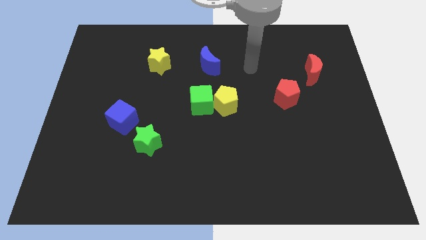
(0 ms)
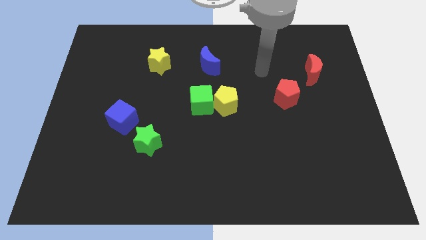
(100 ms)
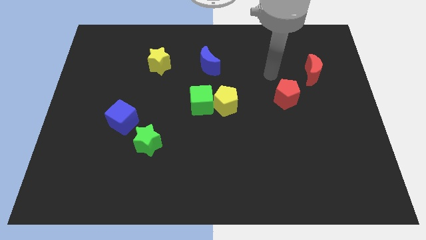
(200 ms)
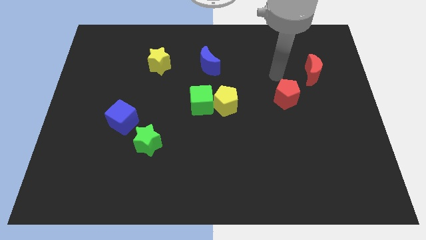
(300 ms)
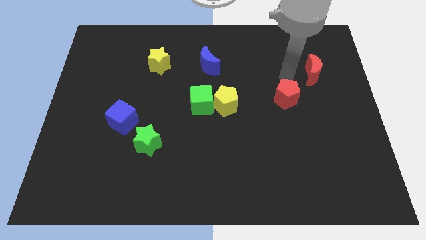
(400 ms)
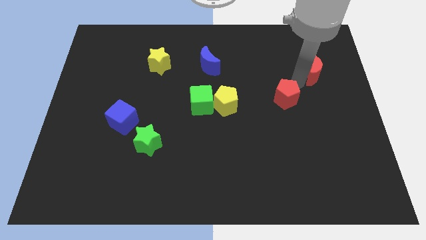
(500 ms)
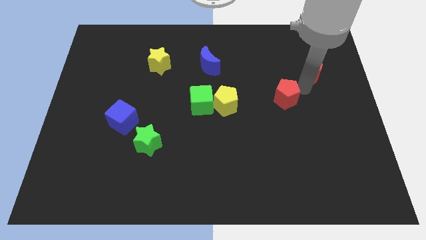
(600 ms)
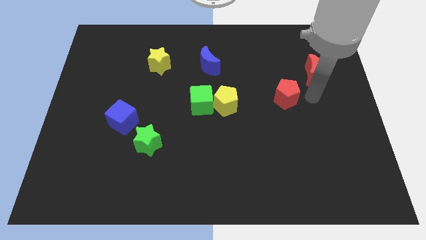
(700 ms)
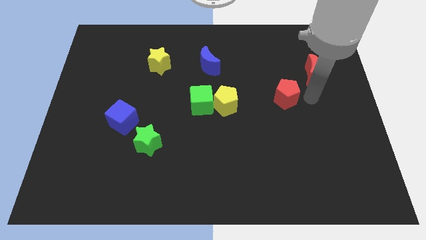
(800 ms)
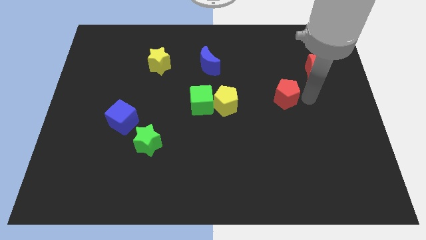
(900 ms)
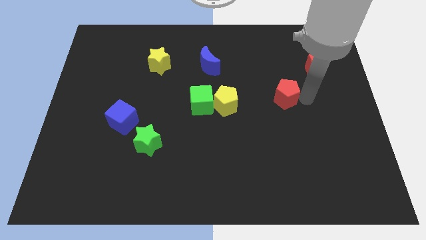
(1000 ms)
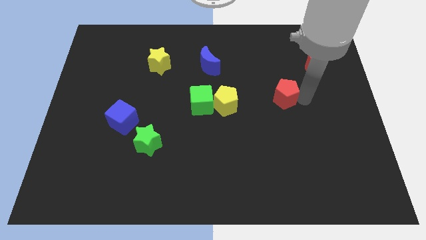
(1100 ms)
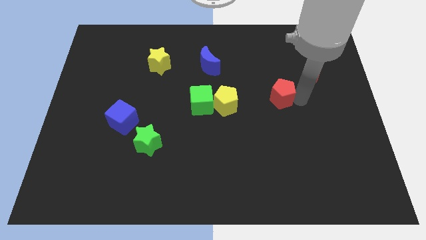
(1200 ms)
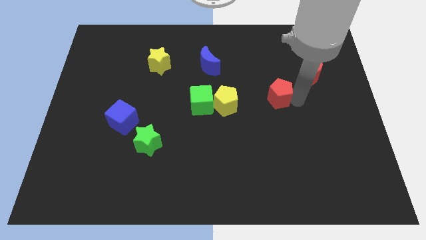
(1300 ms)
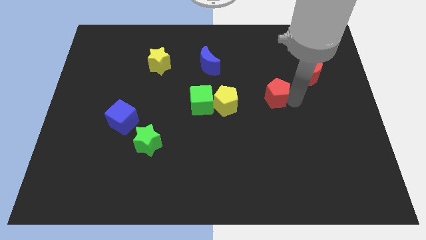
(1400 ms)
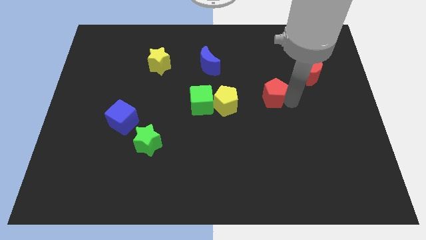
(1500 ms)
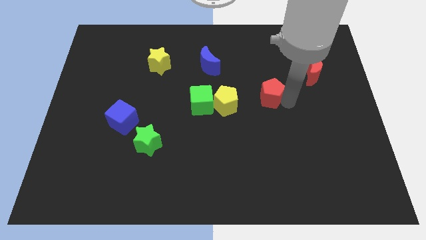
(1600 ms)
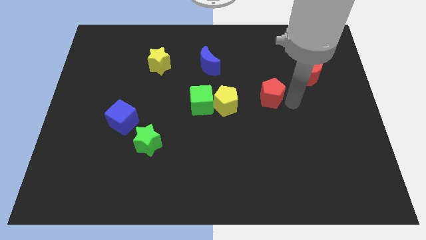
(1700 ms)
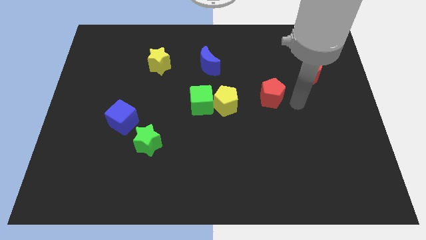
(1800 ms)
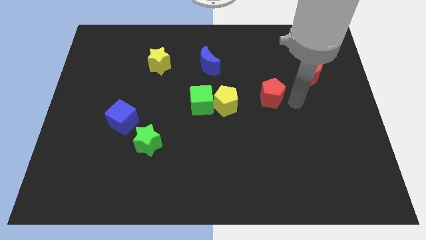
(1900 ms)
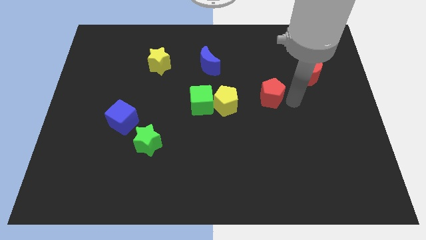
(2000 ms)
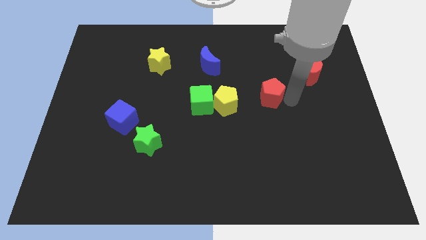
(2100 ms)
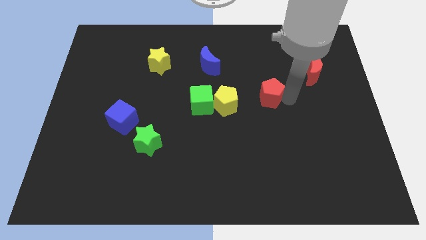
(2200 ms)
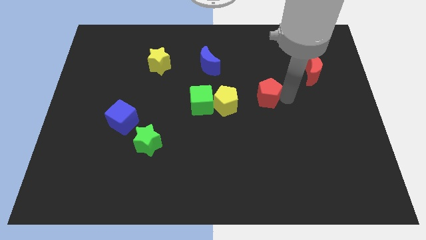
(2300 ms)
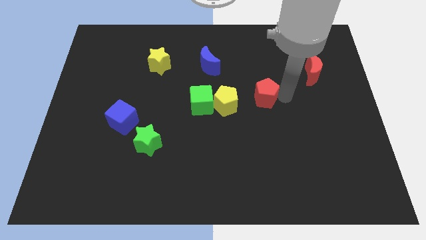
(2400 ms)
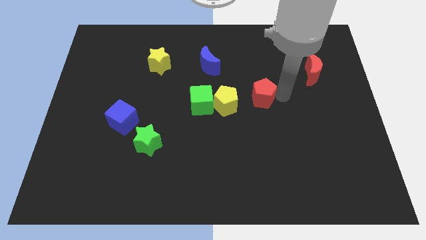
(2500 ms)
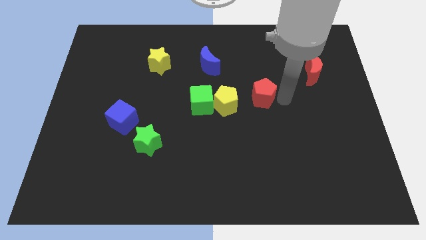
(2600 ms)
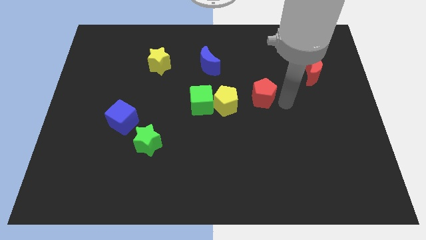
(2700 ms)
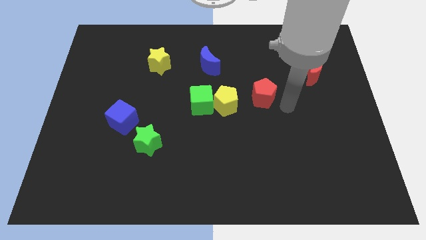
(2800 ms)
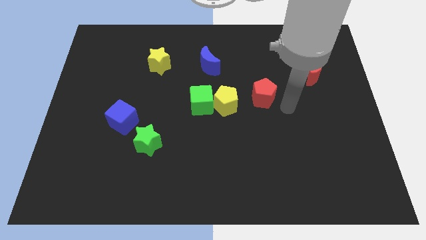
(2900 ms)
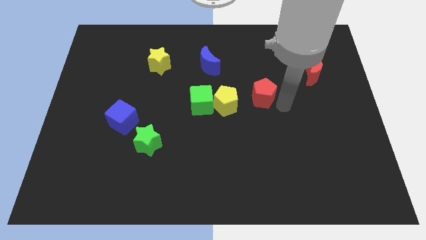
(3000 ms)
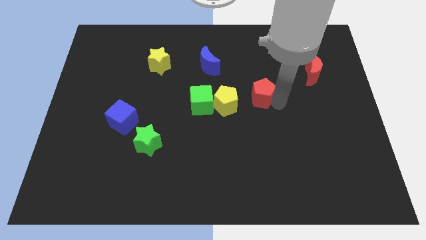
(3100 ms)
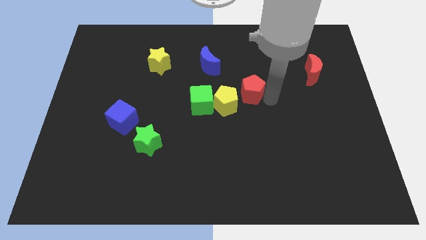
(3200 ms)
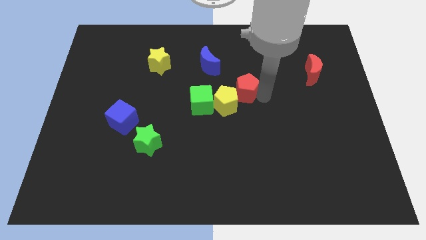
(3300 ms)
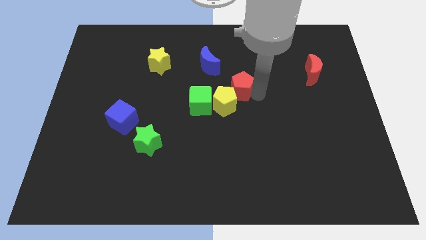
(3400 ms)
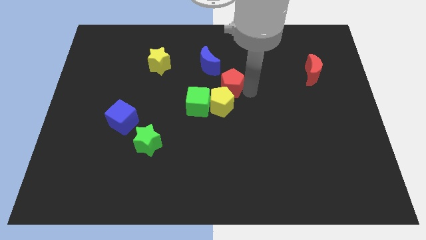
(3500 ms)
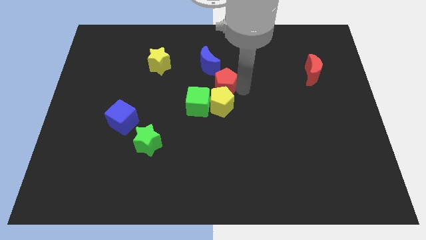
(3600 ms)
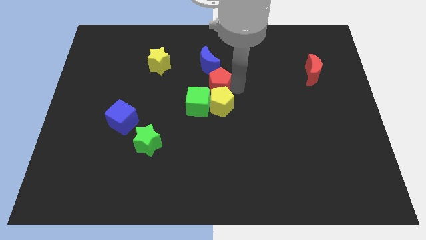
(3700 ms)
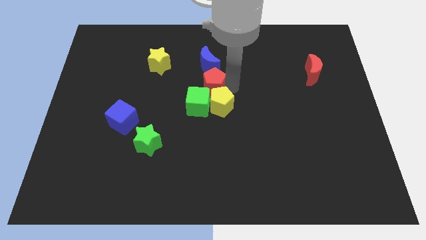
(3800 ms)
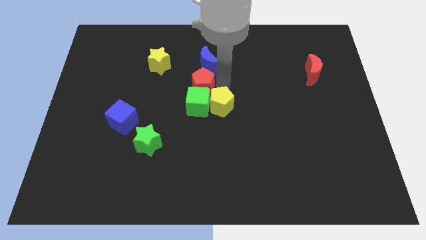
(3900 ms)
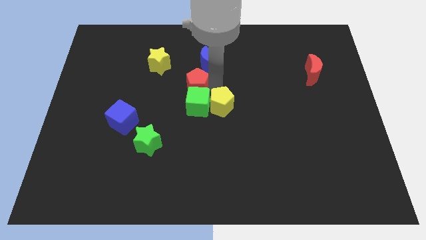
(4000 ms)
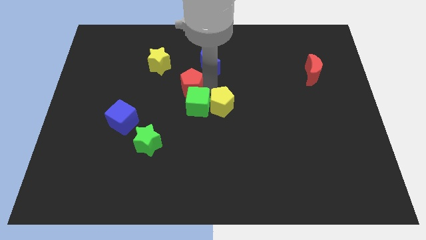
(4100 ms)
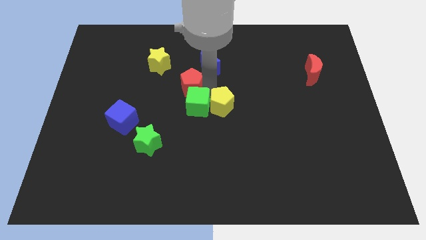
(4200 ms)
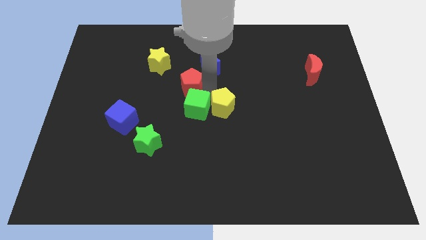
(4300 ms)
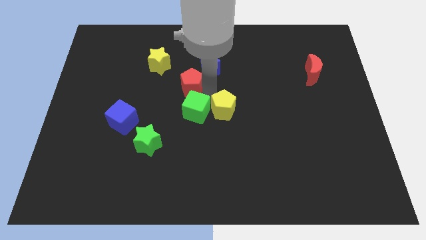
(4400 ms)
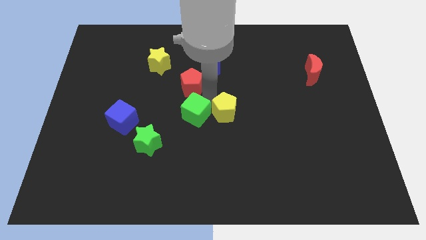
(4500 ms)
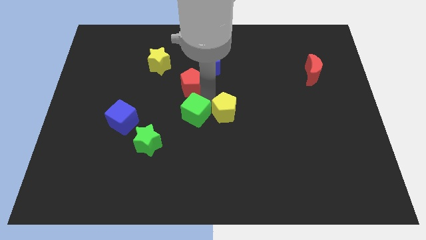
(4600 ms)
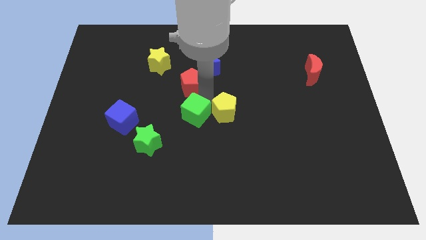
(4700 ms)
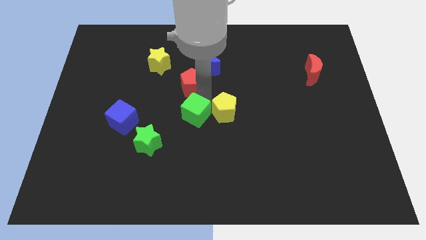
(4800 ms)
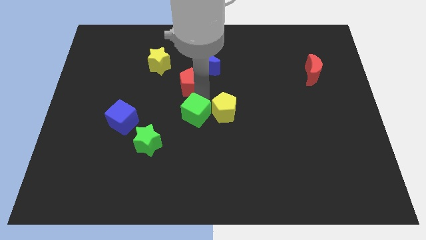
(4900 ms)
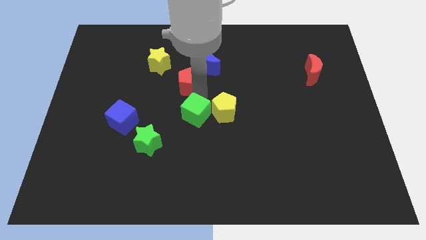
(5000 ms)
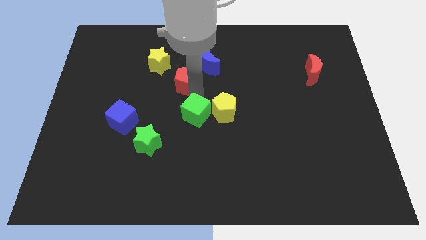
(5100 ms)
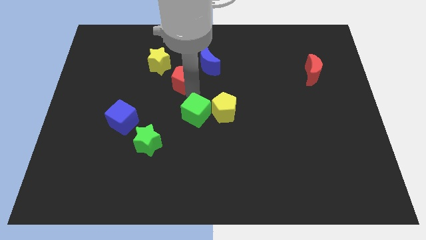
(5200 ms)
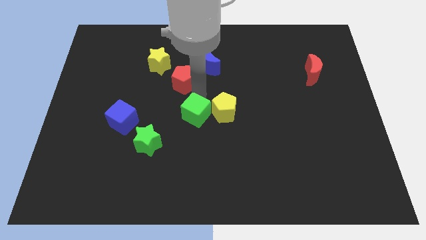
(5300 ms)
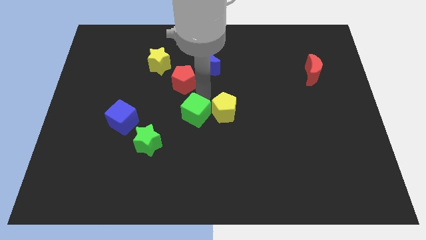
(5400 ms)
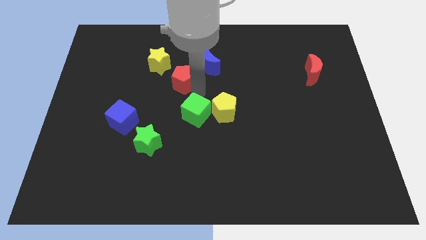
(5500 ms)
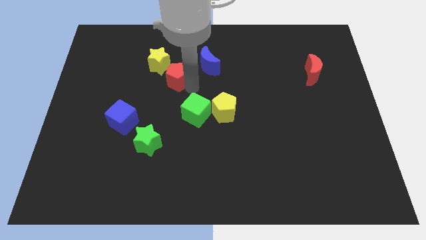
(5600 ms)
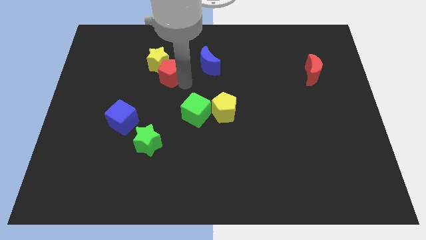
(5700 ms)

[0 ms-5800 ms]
push the red pentagon close to the yellow star

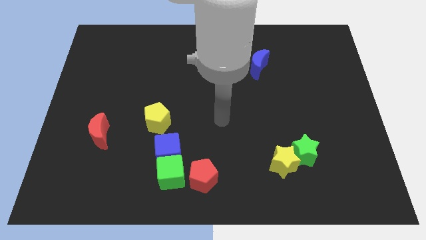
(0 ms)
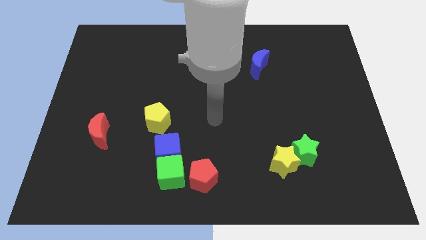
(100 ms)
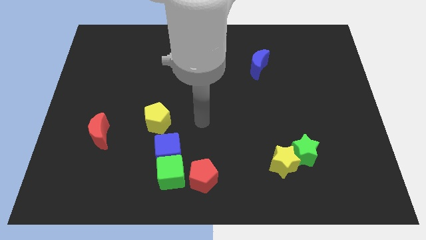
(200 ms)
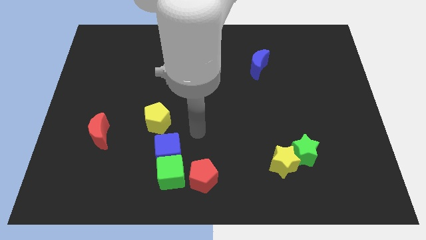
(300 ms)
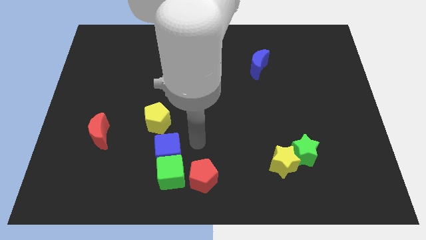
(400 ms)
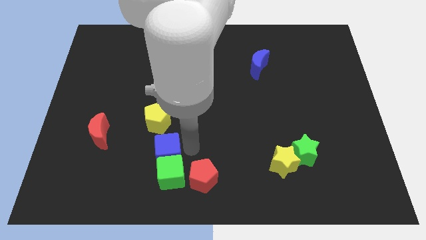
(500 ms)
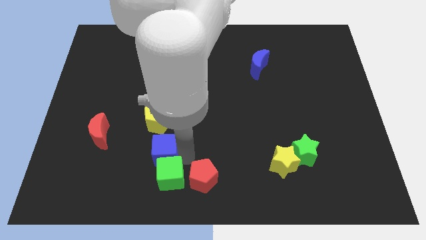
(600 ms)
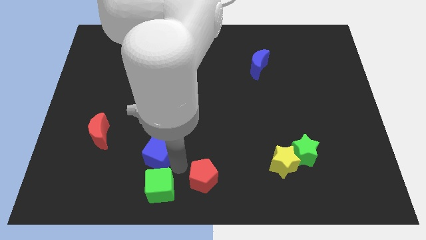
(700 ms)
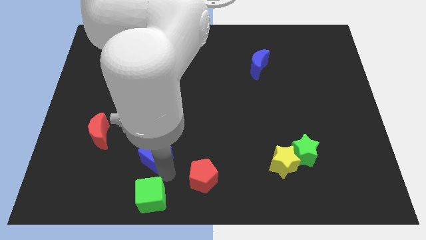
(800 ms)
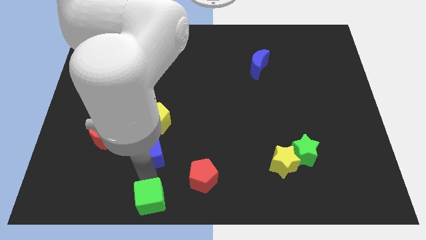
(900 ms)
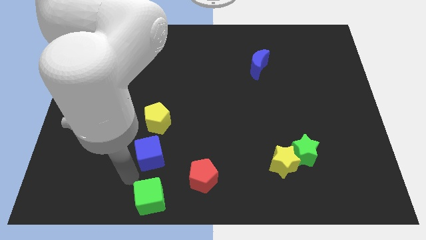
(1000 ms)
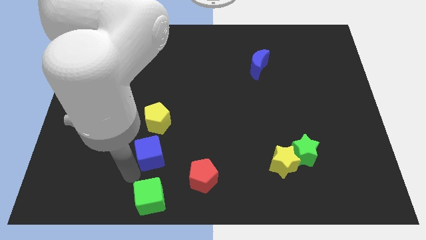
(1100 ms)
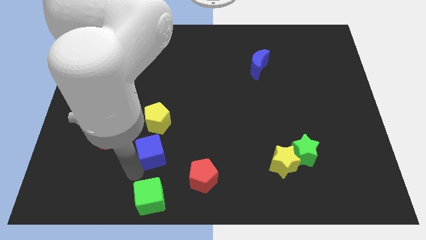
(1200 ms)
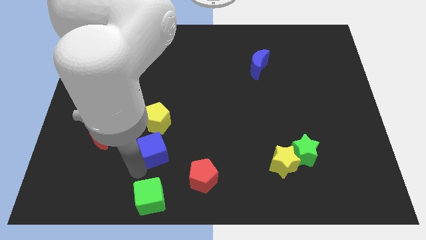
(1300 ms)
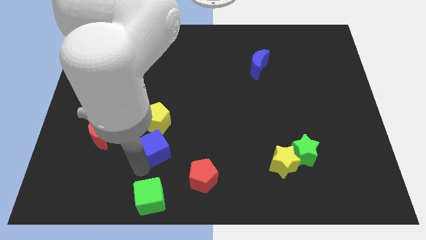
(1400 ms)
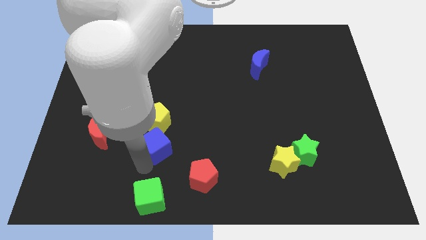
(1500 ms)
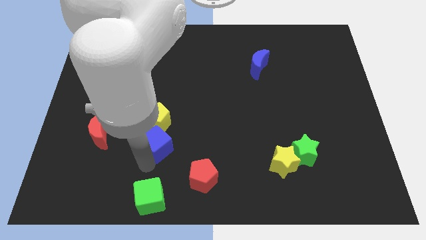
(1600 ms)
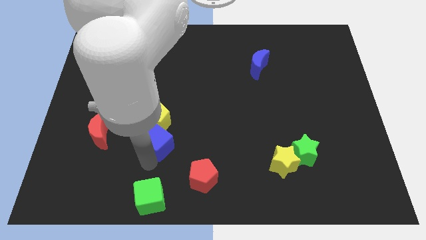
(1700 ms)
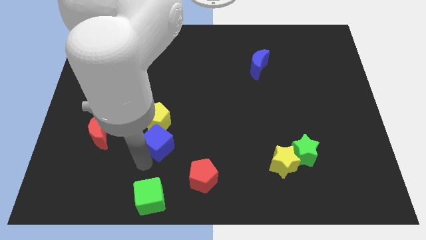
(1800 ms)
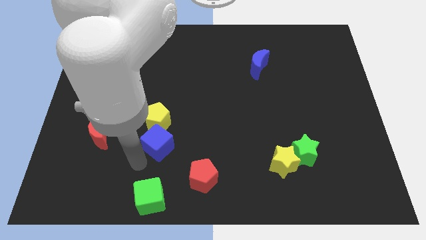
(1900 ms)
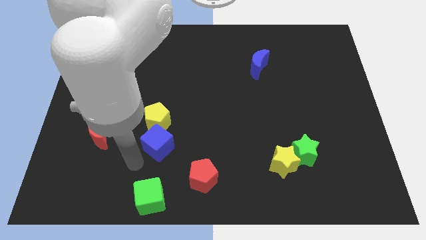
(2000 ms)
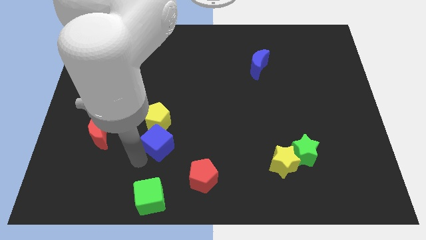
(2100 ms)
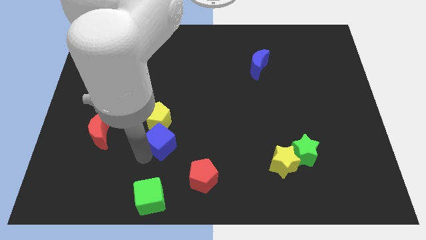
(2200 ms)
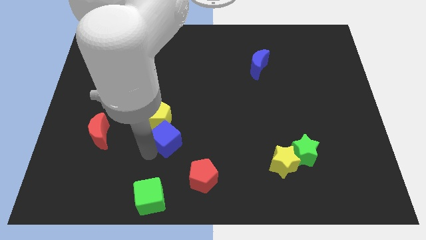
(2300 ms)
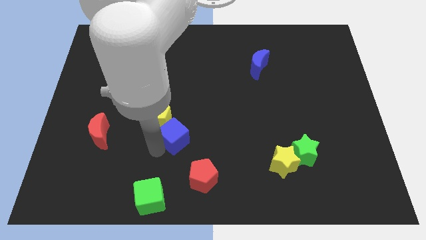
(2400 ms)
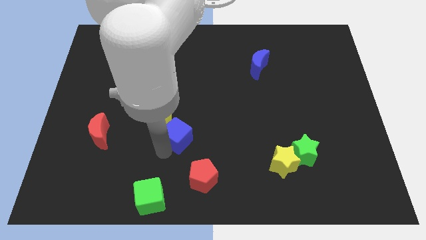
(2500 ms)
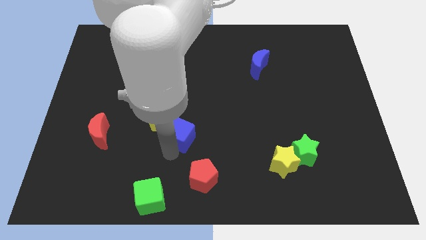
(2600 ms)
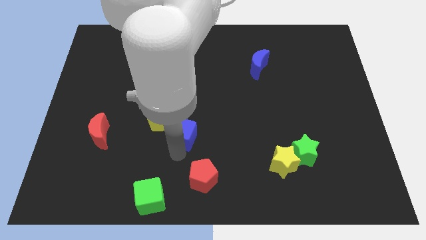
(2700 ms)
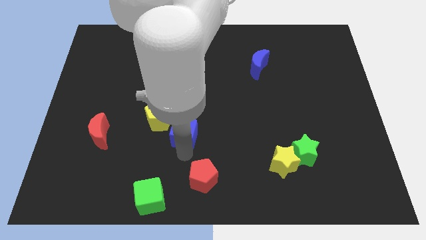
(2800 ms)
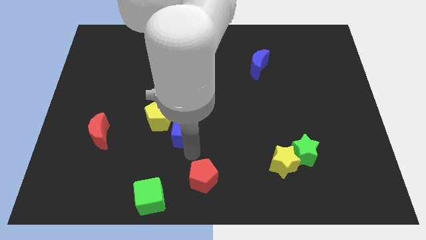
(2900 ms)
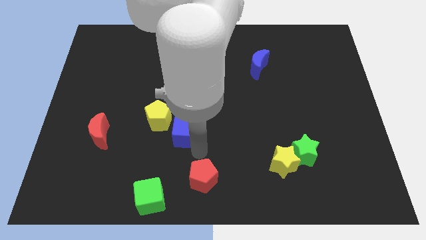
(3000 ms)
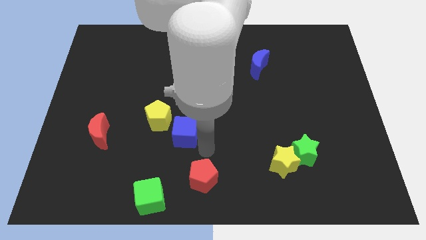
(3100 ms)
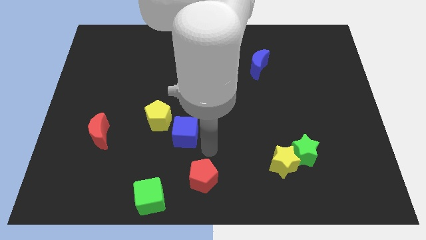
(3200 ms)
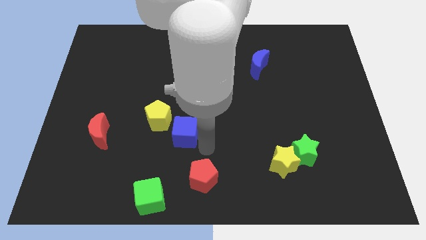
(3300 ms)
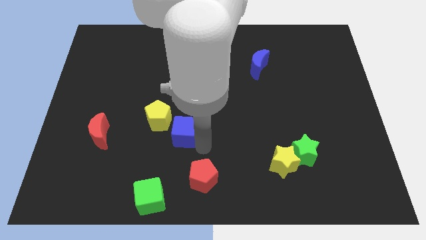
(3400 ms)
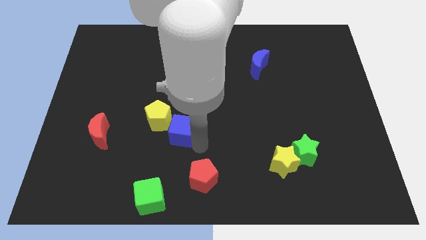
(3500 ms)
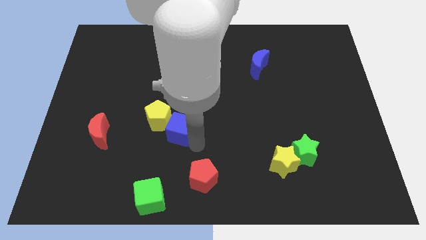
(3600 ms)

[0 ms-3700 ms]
put the blue cube next to the yellow pentagon
